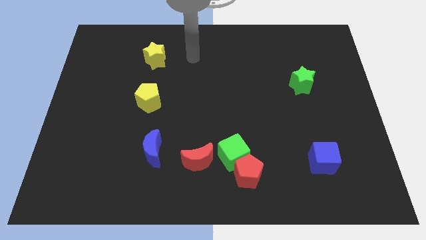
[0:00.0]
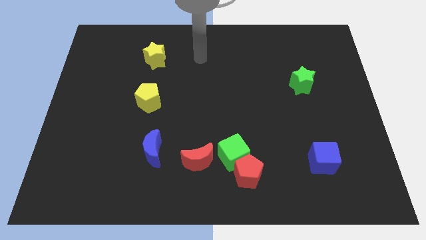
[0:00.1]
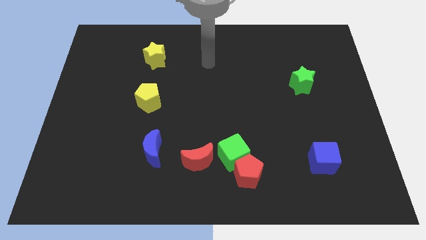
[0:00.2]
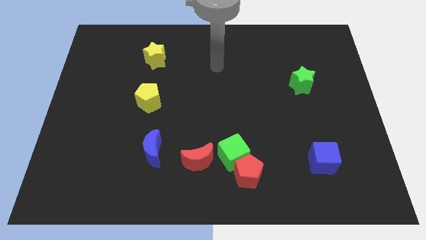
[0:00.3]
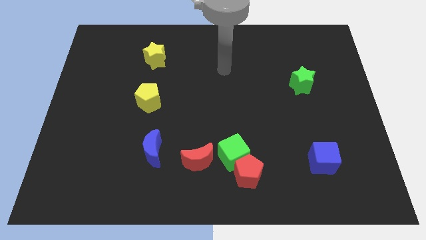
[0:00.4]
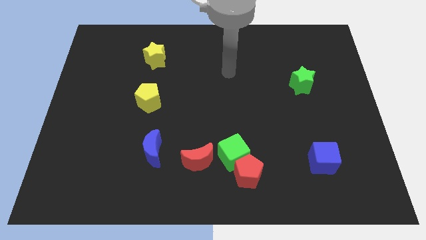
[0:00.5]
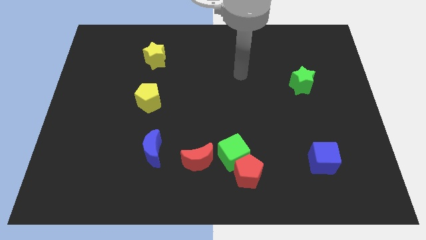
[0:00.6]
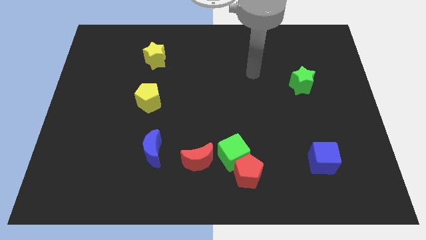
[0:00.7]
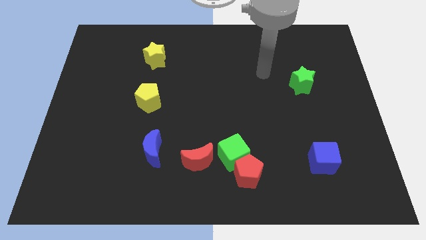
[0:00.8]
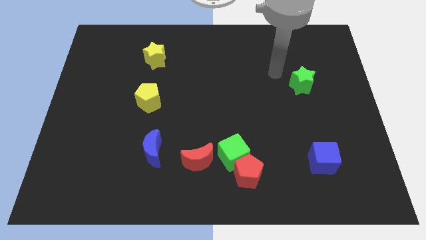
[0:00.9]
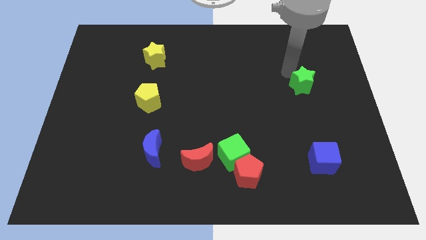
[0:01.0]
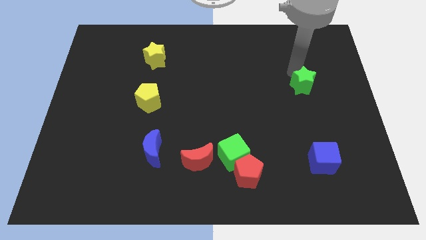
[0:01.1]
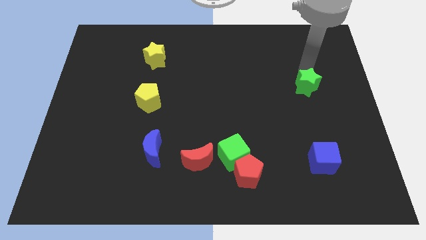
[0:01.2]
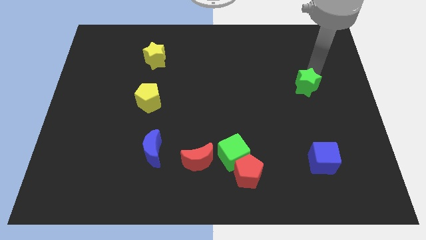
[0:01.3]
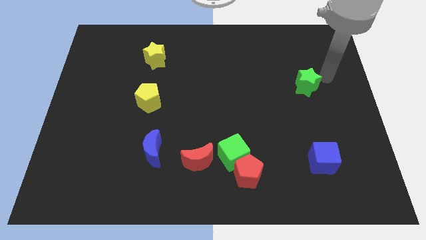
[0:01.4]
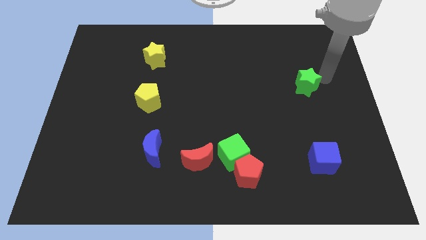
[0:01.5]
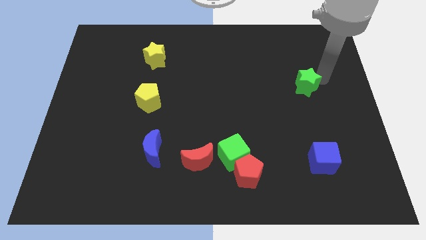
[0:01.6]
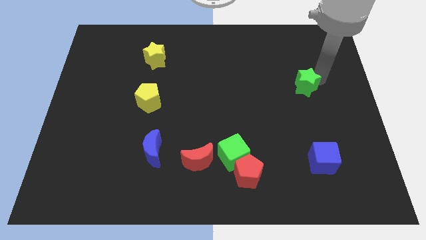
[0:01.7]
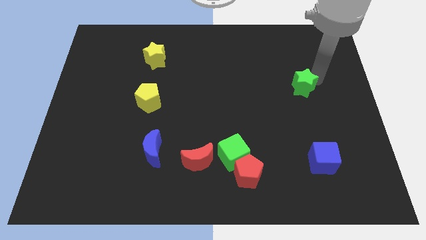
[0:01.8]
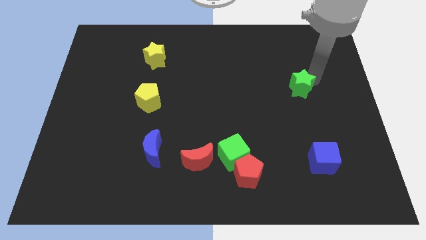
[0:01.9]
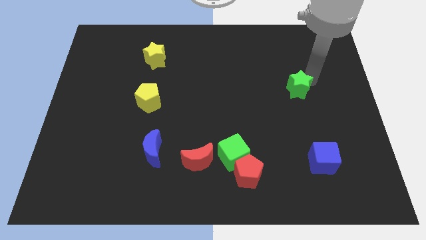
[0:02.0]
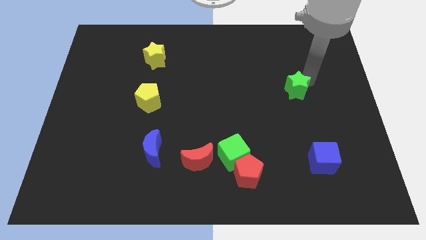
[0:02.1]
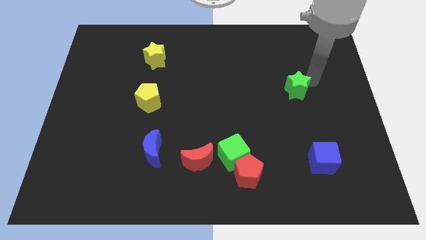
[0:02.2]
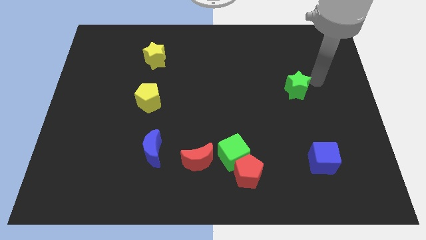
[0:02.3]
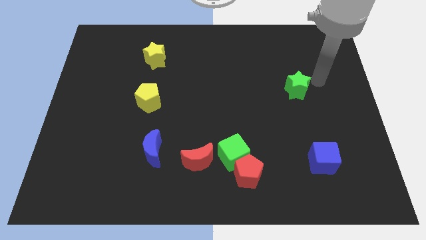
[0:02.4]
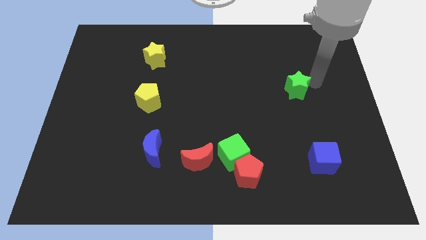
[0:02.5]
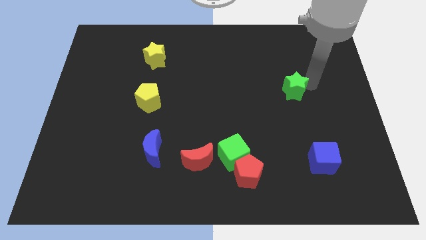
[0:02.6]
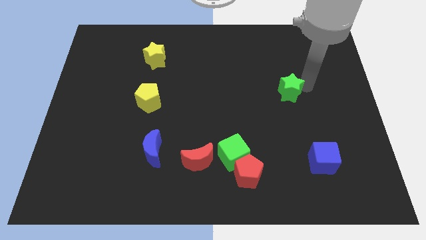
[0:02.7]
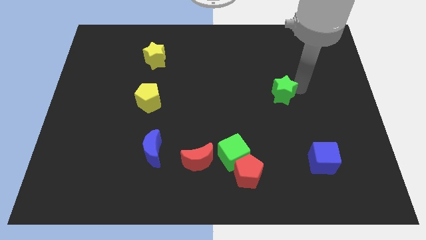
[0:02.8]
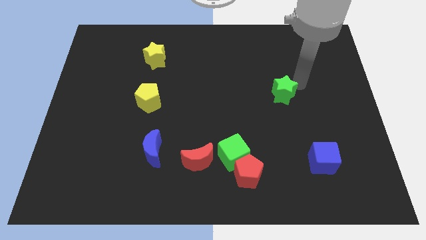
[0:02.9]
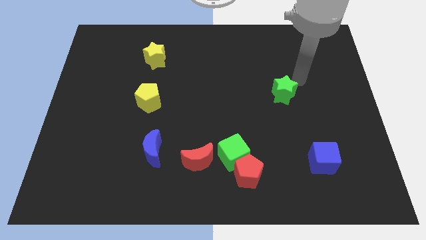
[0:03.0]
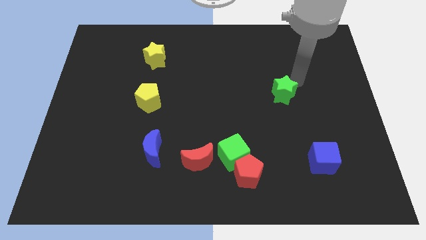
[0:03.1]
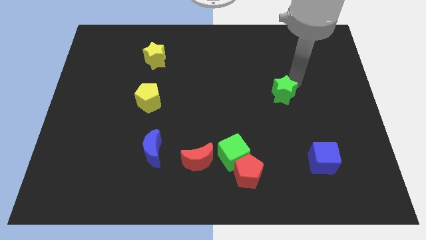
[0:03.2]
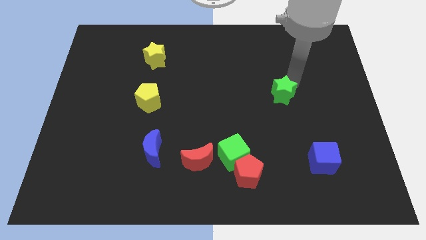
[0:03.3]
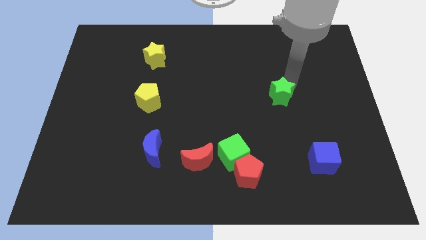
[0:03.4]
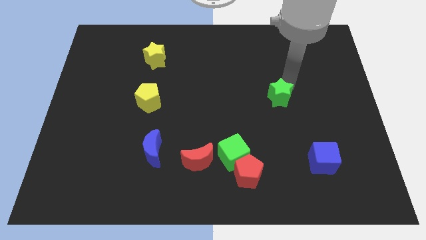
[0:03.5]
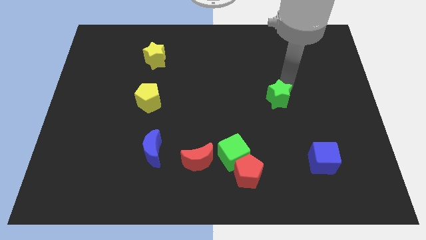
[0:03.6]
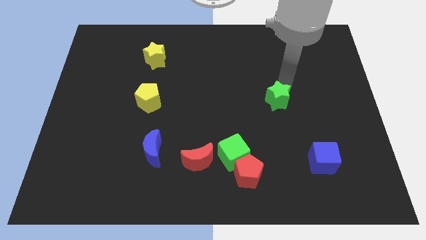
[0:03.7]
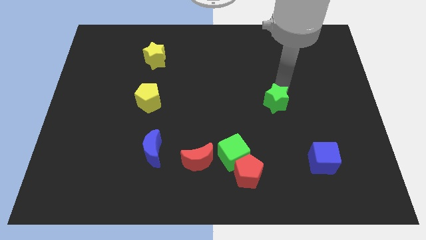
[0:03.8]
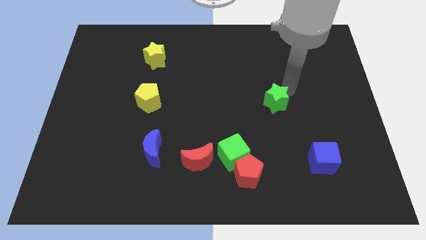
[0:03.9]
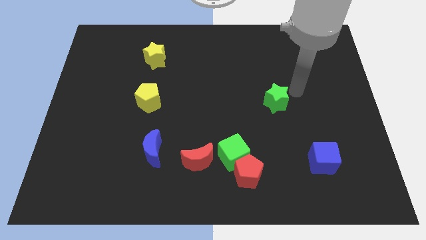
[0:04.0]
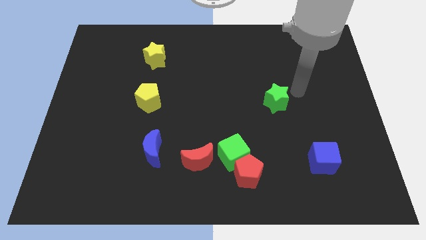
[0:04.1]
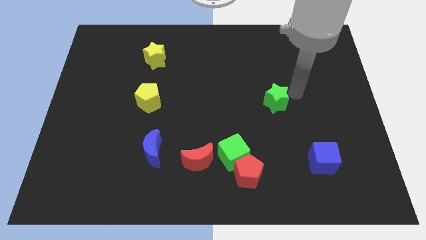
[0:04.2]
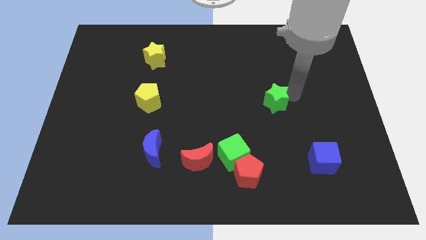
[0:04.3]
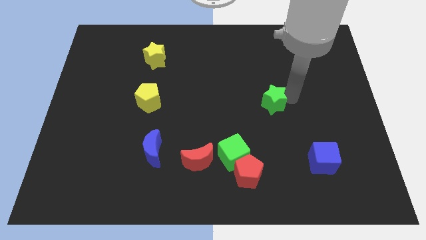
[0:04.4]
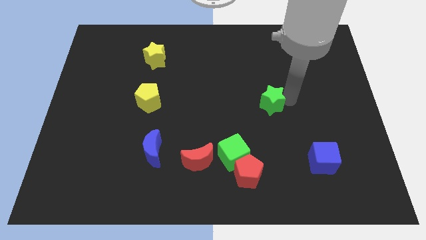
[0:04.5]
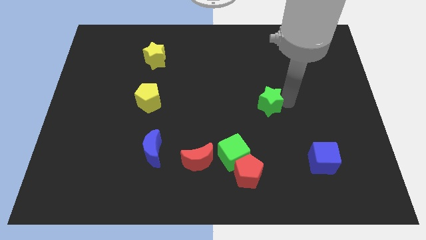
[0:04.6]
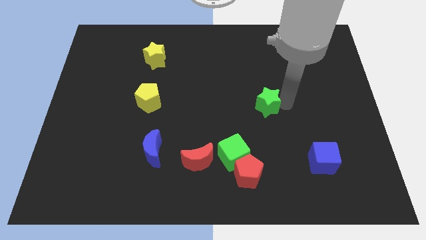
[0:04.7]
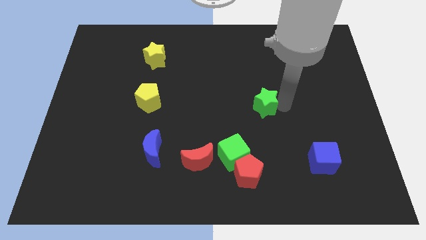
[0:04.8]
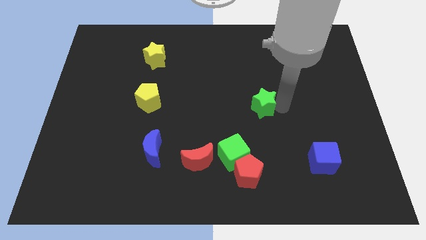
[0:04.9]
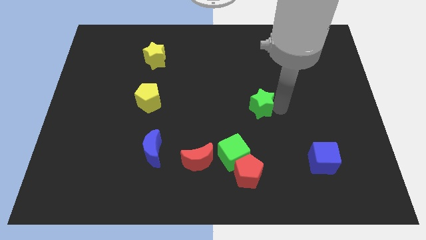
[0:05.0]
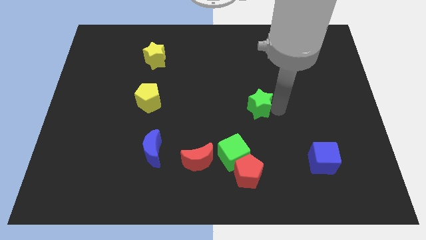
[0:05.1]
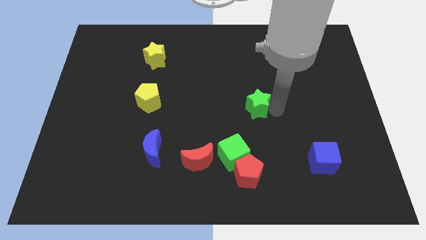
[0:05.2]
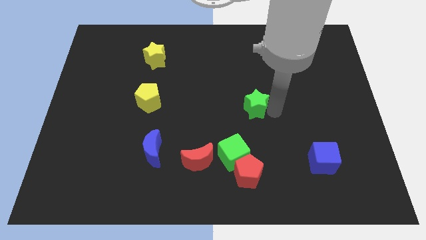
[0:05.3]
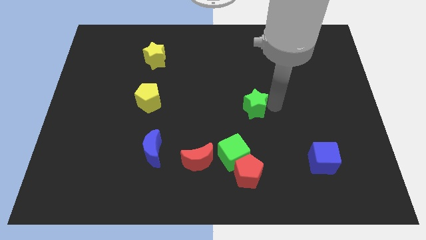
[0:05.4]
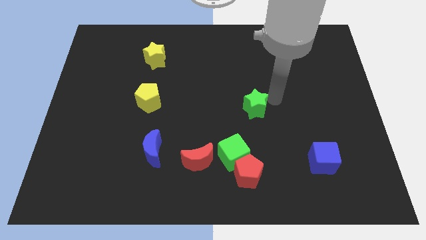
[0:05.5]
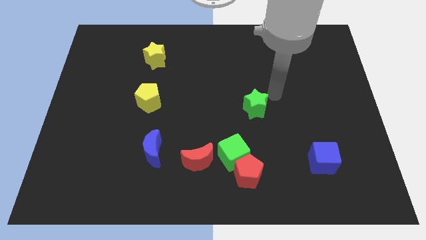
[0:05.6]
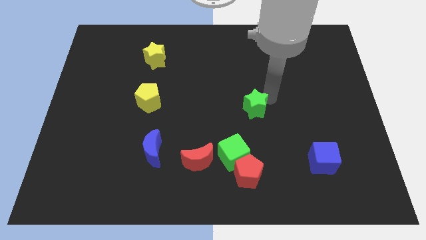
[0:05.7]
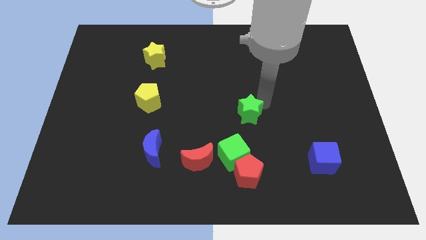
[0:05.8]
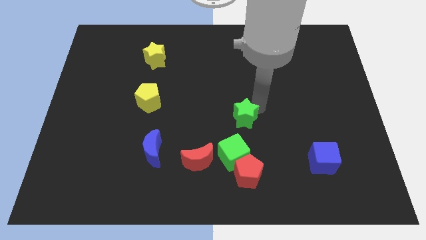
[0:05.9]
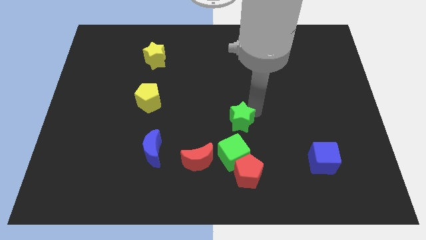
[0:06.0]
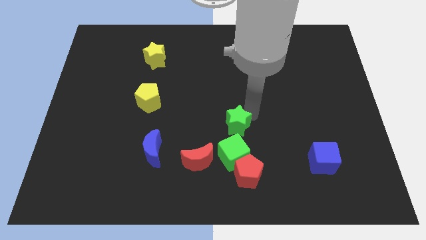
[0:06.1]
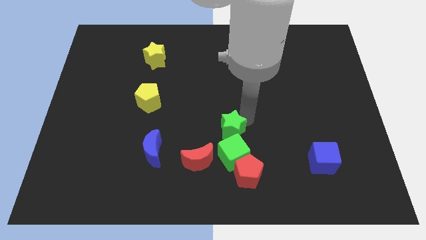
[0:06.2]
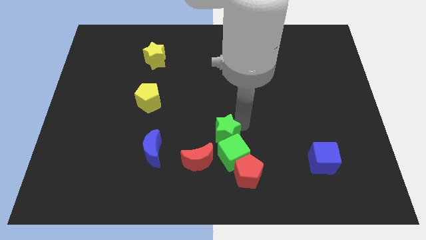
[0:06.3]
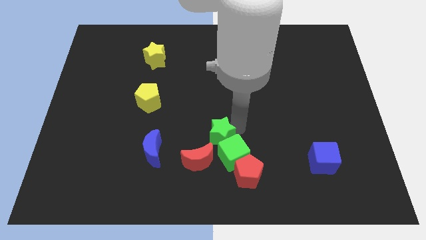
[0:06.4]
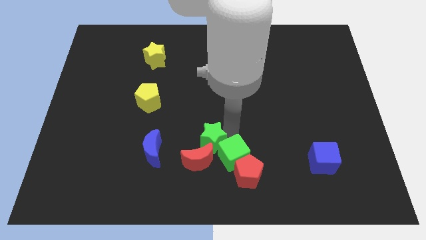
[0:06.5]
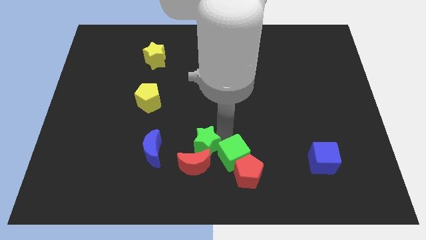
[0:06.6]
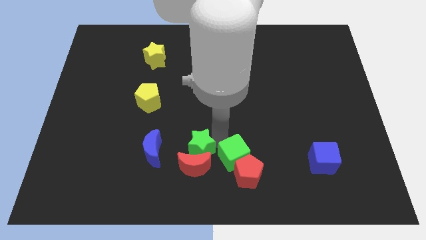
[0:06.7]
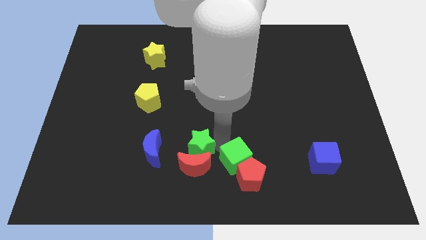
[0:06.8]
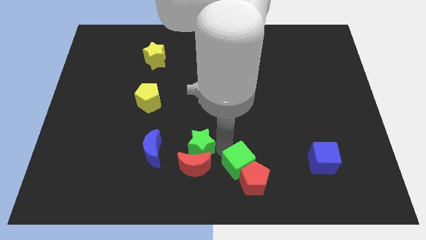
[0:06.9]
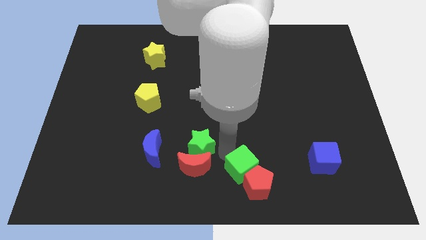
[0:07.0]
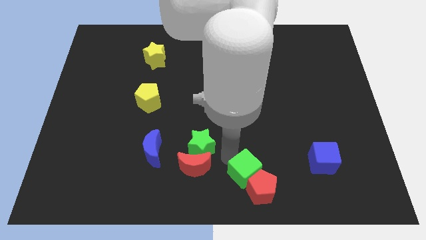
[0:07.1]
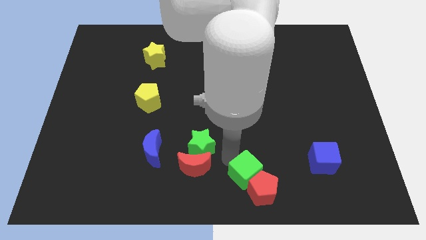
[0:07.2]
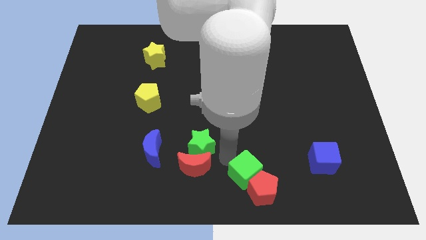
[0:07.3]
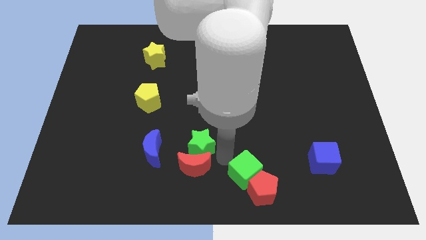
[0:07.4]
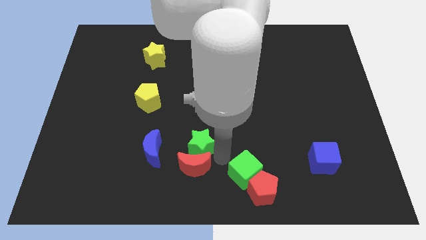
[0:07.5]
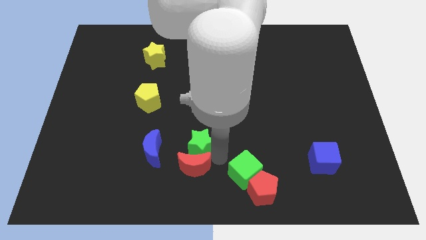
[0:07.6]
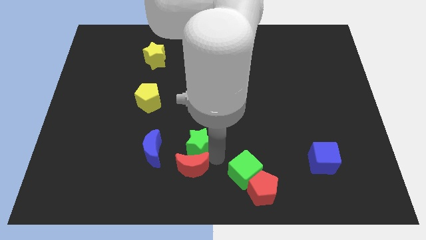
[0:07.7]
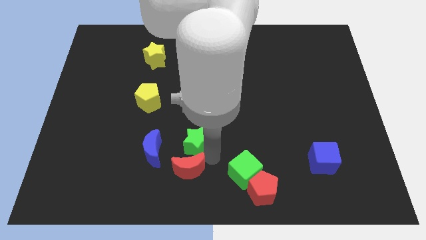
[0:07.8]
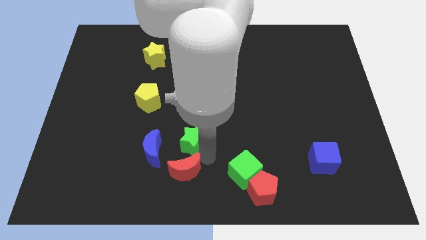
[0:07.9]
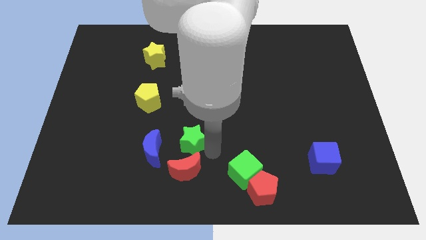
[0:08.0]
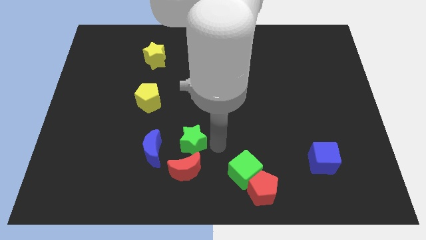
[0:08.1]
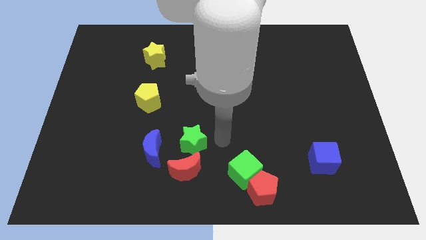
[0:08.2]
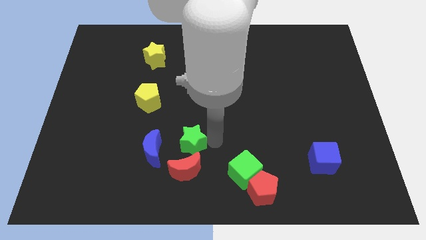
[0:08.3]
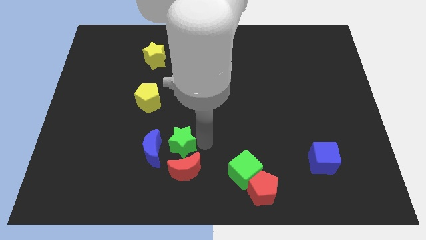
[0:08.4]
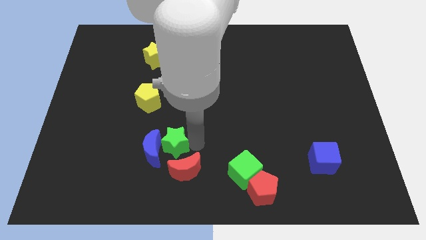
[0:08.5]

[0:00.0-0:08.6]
move the green star next to the blue moon
